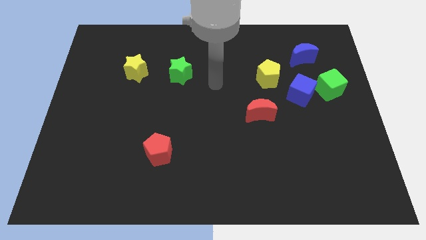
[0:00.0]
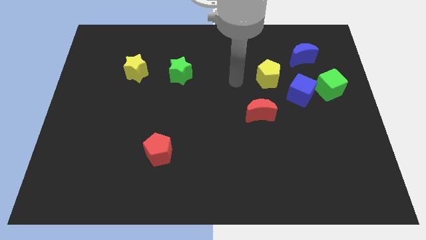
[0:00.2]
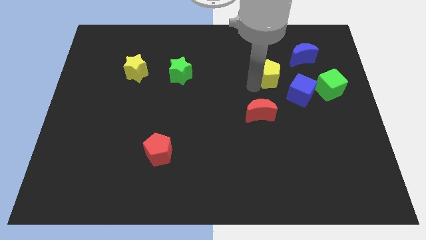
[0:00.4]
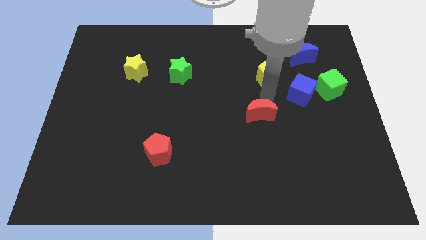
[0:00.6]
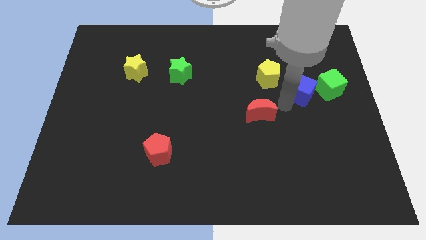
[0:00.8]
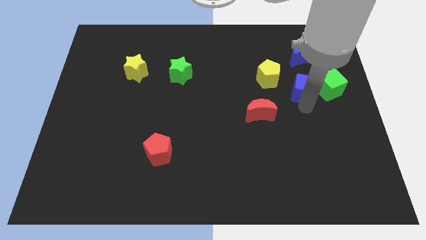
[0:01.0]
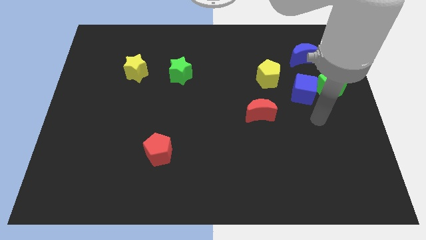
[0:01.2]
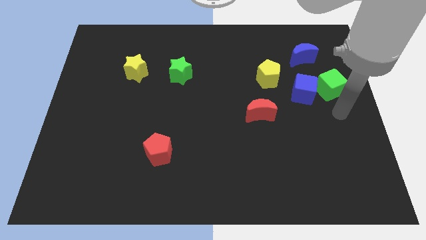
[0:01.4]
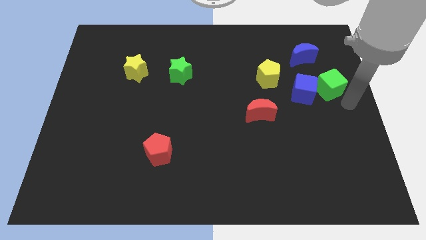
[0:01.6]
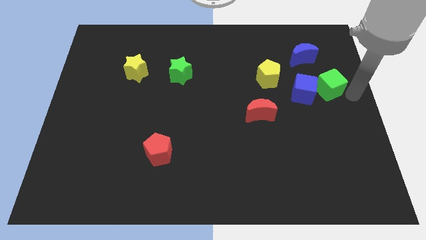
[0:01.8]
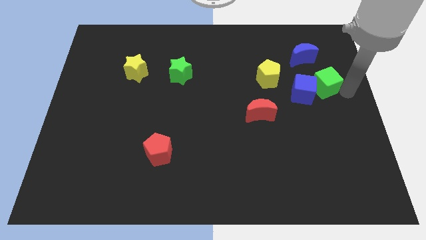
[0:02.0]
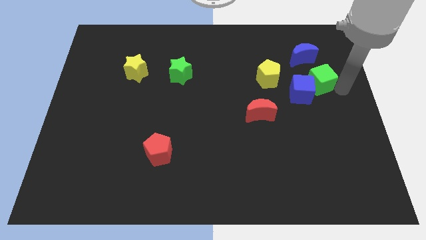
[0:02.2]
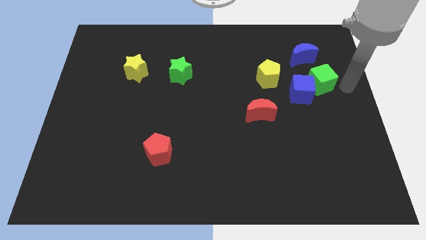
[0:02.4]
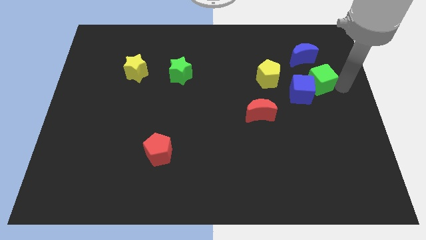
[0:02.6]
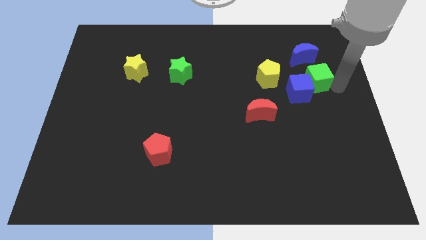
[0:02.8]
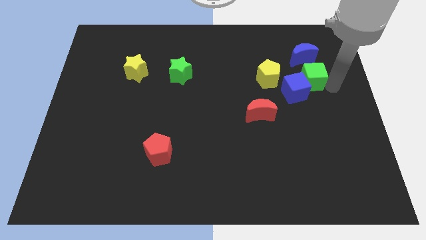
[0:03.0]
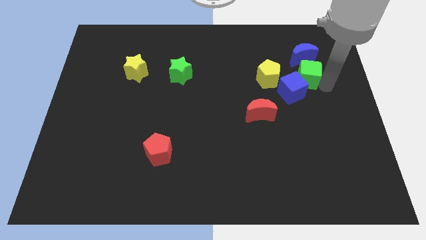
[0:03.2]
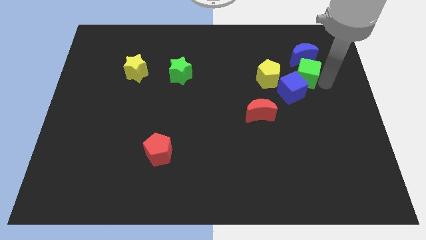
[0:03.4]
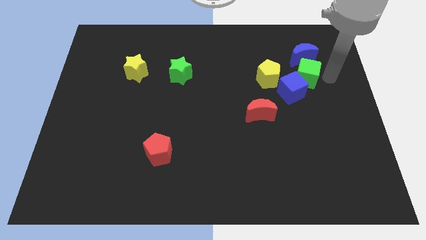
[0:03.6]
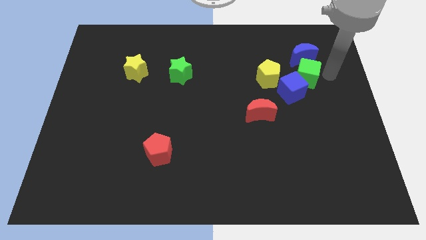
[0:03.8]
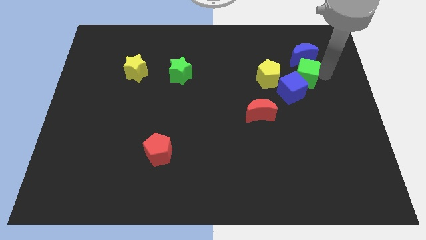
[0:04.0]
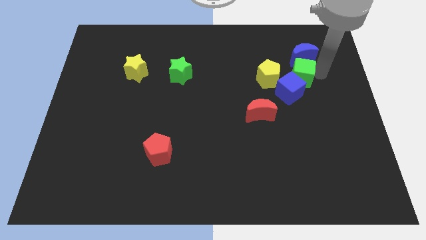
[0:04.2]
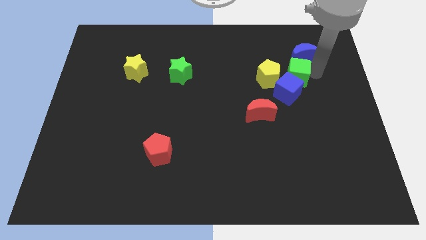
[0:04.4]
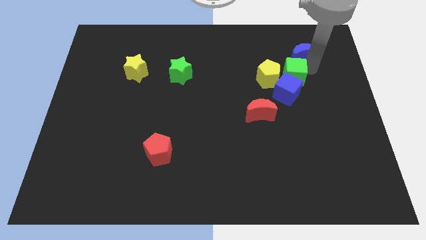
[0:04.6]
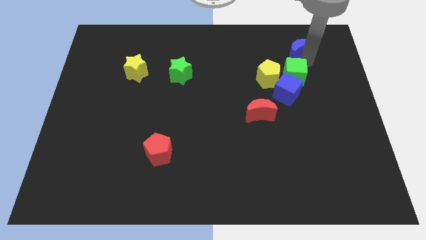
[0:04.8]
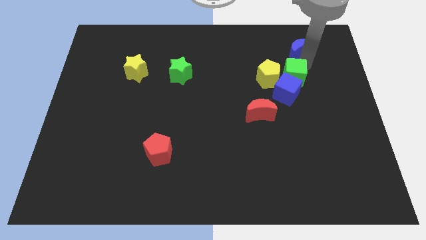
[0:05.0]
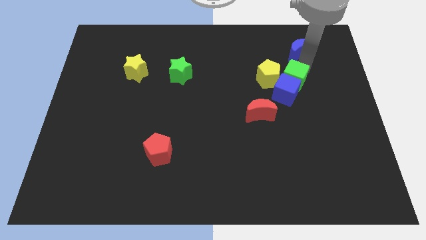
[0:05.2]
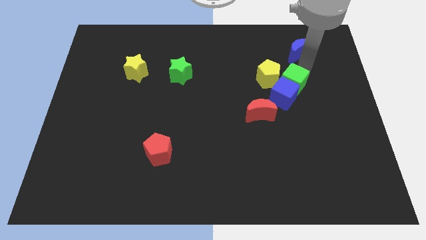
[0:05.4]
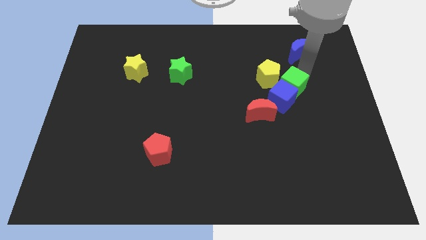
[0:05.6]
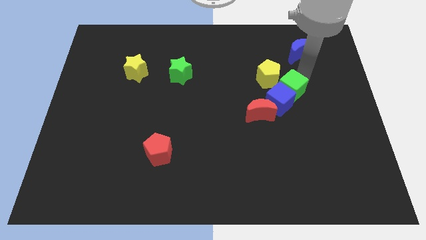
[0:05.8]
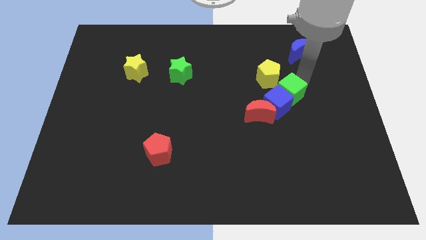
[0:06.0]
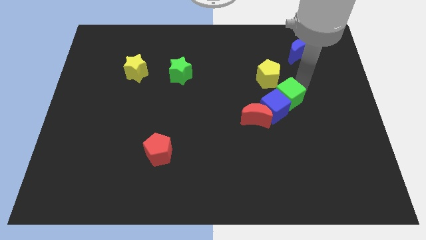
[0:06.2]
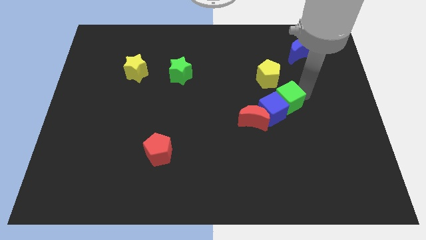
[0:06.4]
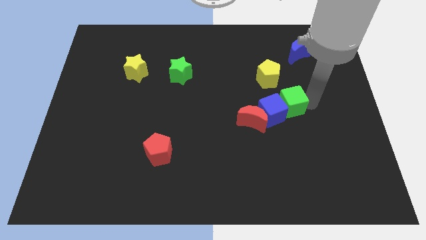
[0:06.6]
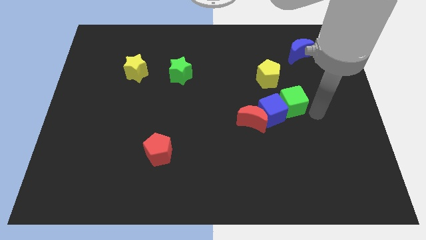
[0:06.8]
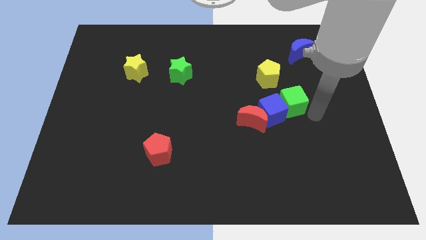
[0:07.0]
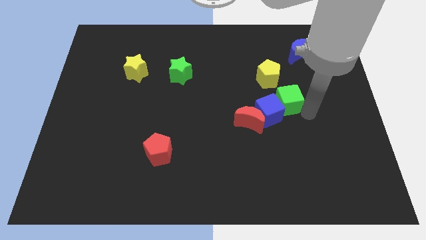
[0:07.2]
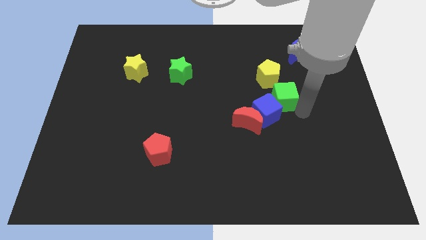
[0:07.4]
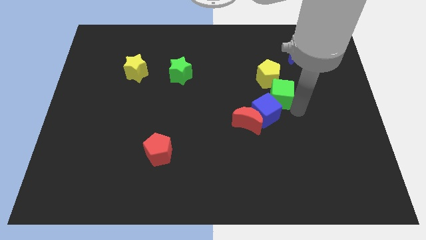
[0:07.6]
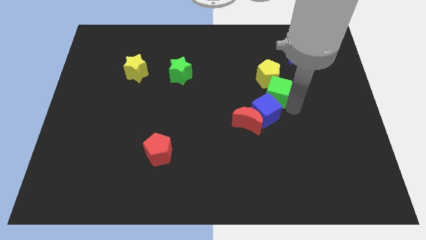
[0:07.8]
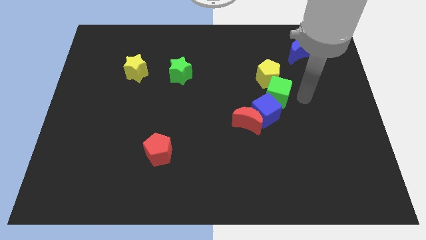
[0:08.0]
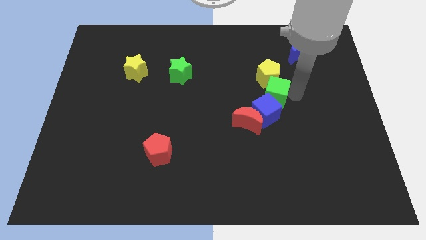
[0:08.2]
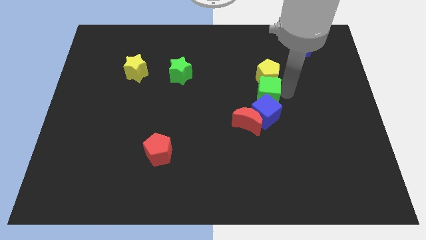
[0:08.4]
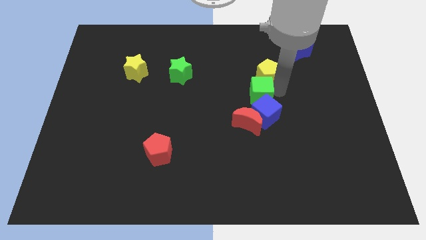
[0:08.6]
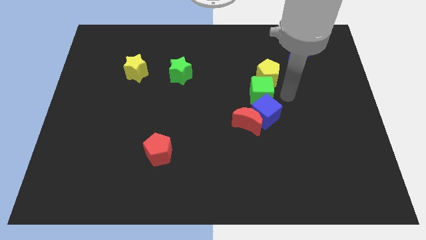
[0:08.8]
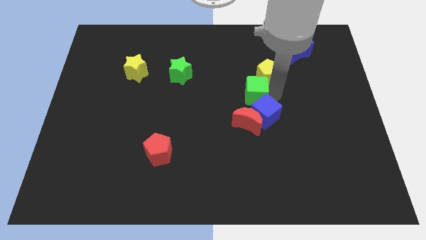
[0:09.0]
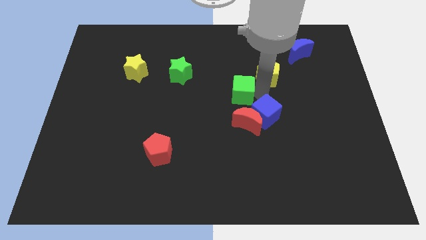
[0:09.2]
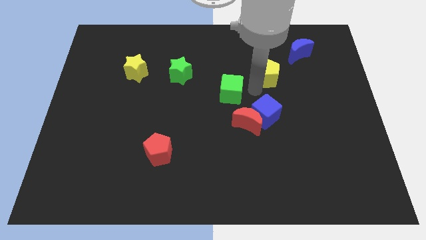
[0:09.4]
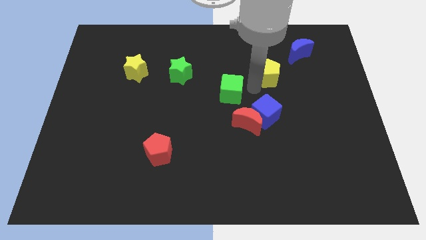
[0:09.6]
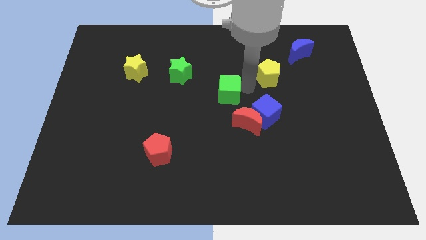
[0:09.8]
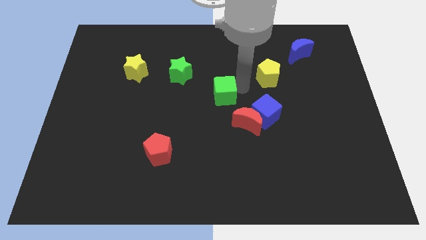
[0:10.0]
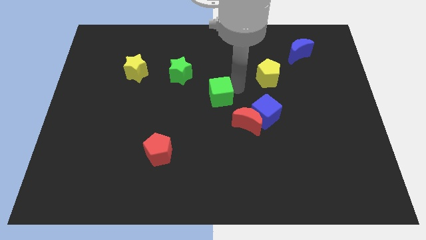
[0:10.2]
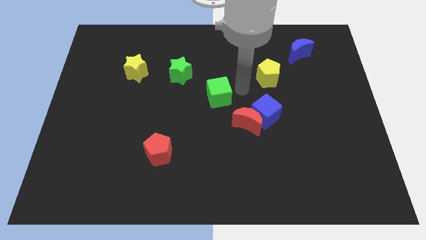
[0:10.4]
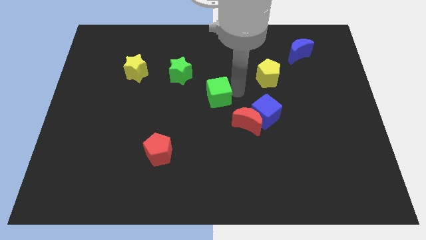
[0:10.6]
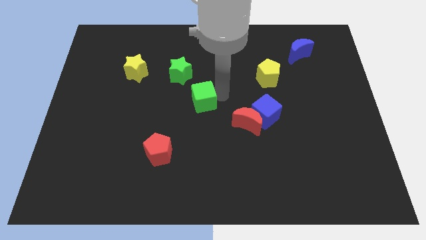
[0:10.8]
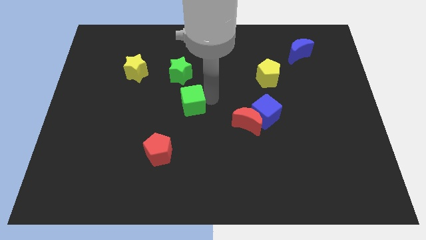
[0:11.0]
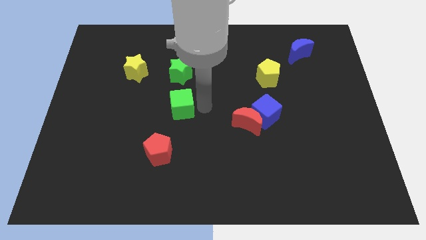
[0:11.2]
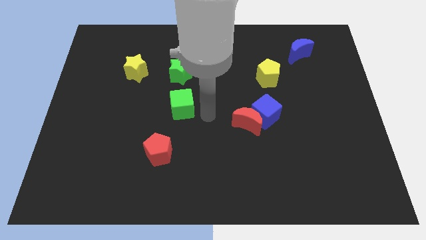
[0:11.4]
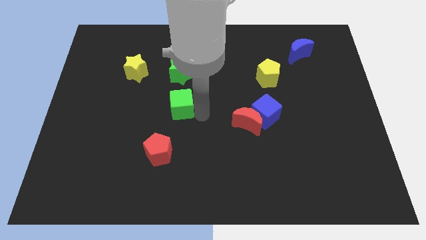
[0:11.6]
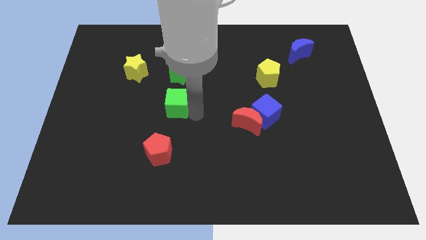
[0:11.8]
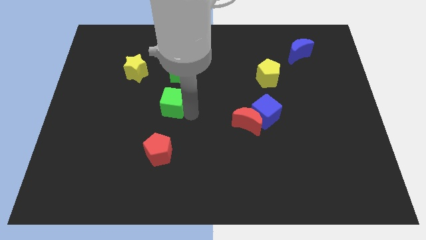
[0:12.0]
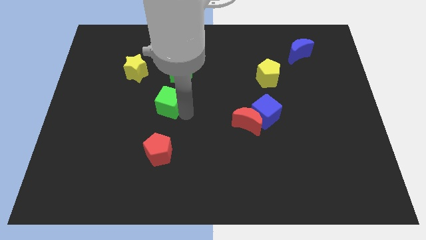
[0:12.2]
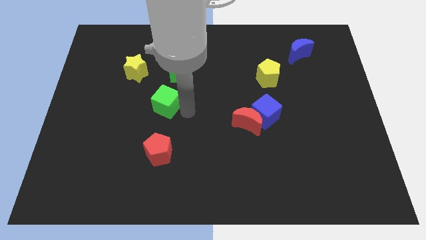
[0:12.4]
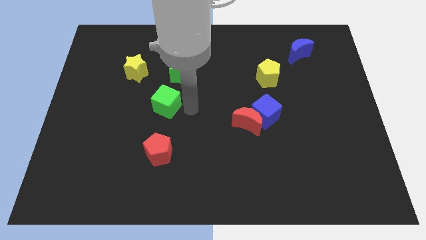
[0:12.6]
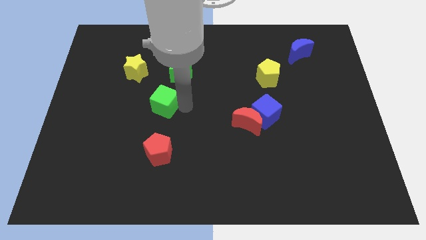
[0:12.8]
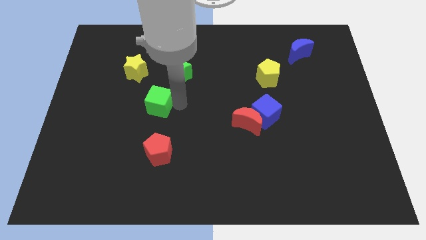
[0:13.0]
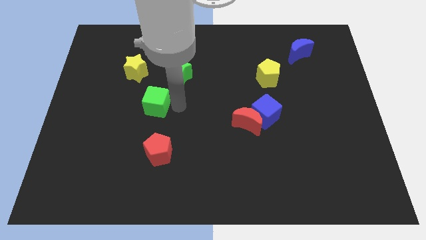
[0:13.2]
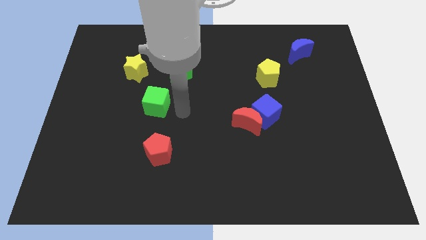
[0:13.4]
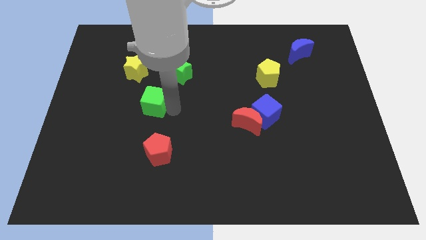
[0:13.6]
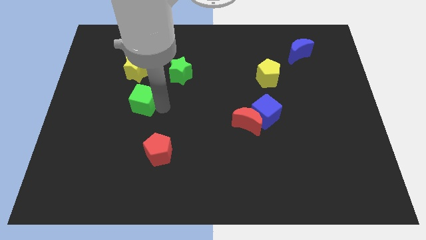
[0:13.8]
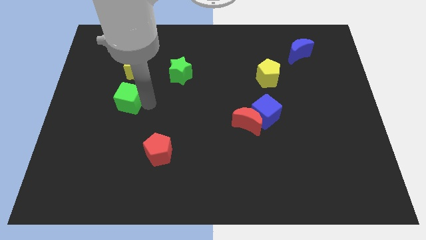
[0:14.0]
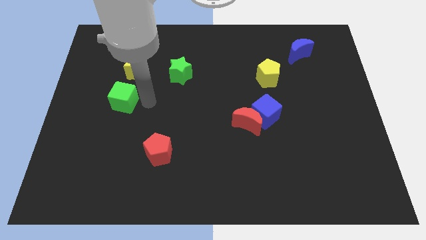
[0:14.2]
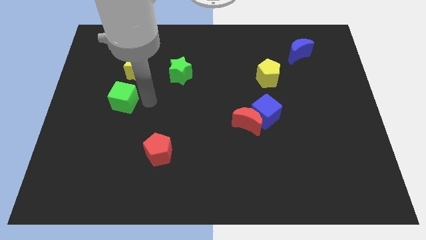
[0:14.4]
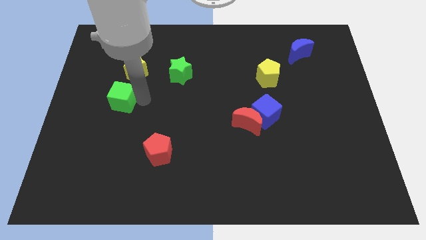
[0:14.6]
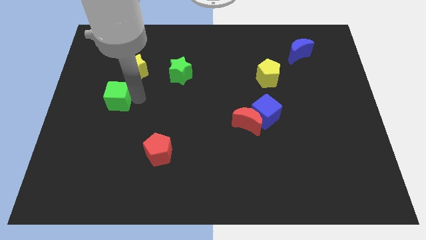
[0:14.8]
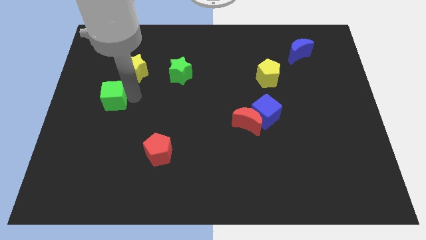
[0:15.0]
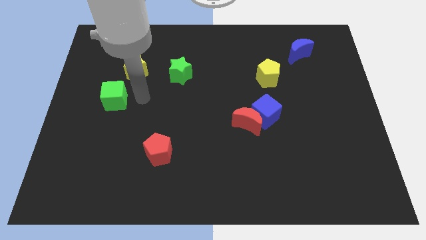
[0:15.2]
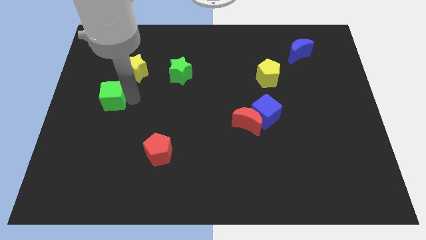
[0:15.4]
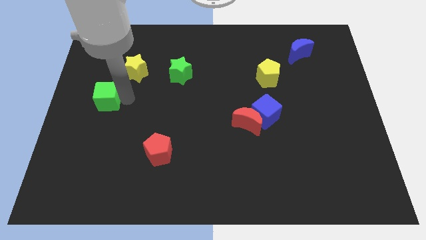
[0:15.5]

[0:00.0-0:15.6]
move the green cube to the left side
